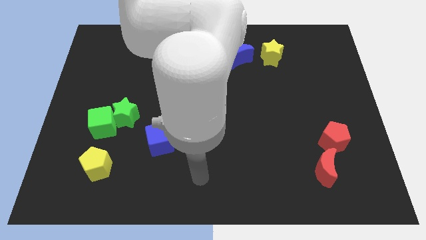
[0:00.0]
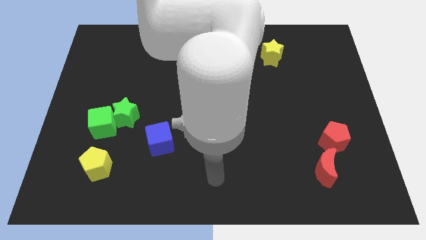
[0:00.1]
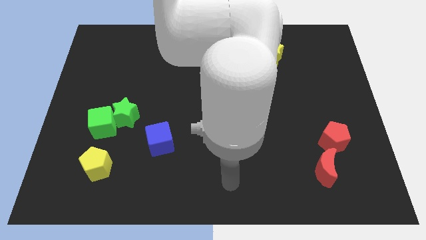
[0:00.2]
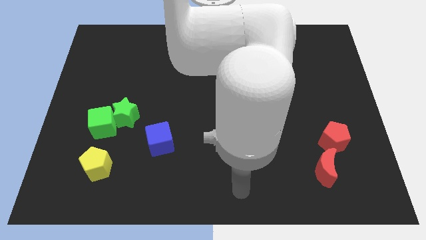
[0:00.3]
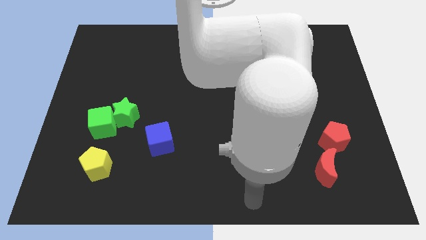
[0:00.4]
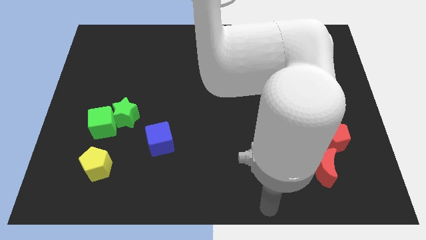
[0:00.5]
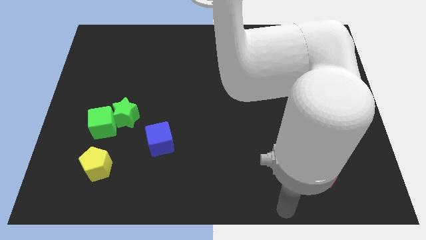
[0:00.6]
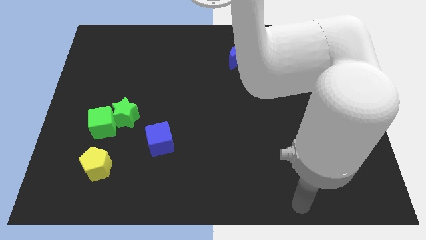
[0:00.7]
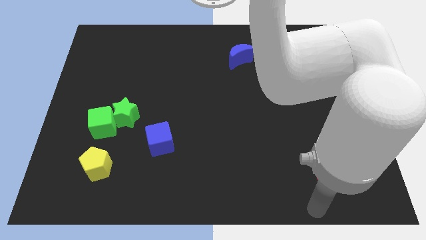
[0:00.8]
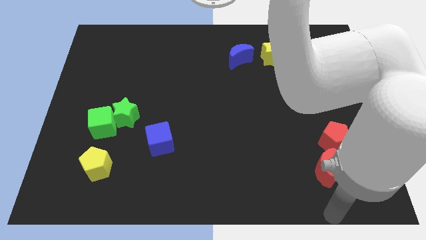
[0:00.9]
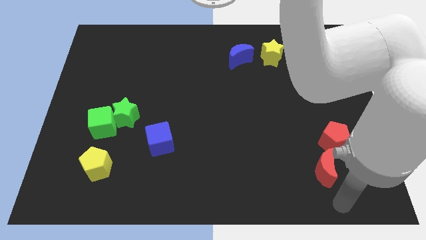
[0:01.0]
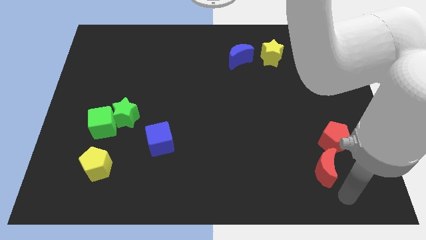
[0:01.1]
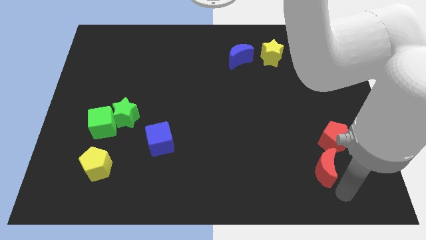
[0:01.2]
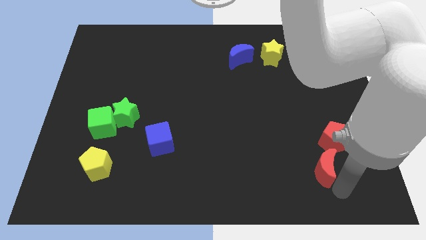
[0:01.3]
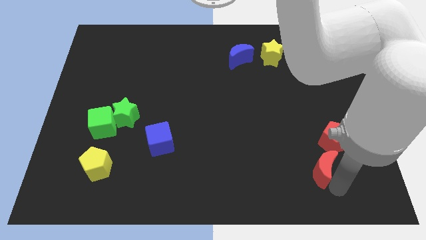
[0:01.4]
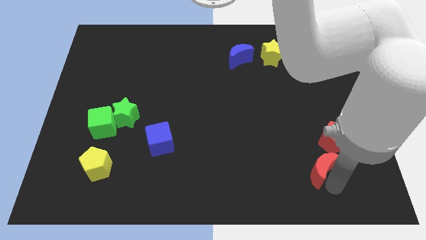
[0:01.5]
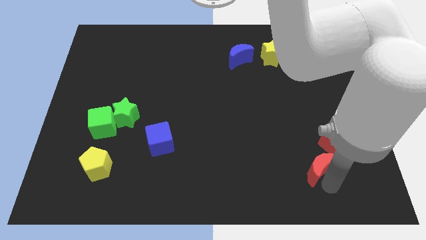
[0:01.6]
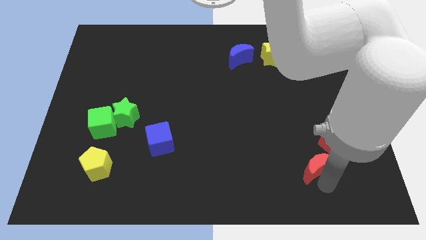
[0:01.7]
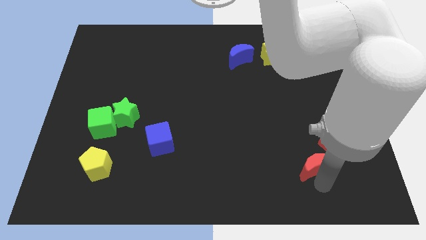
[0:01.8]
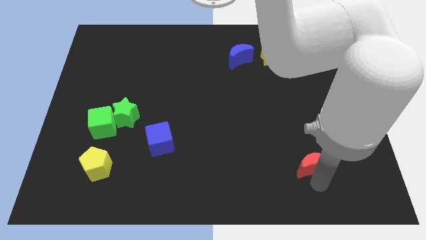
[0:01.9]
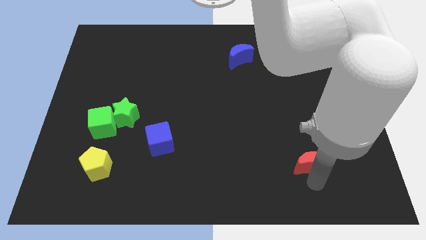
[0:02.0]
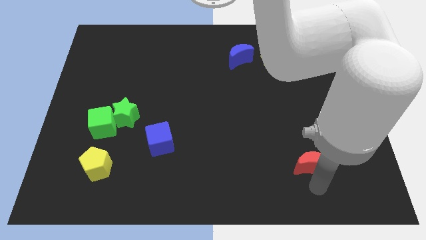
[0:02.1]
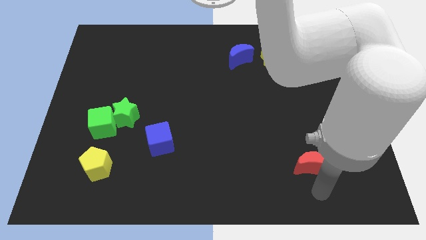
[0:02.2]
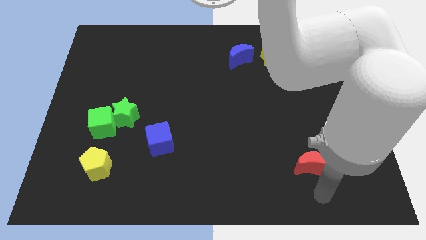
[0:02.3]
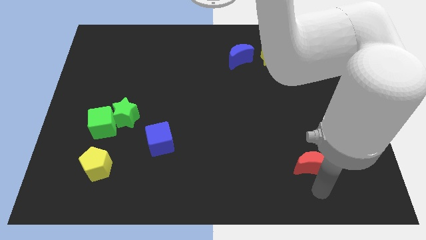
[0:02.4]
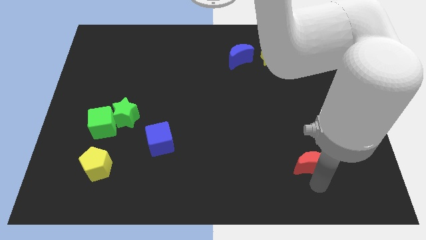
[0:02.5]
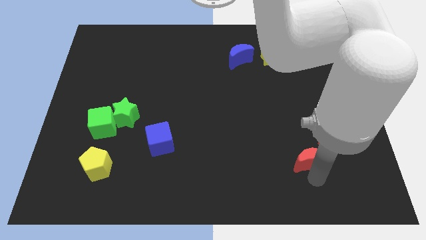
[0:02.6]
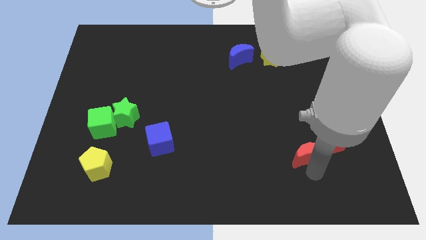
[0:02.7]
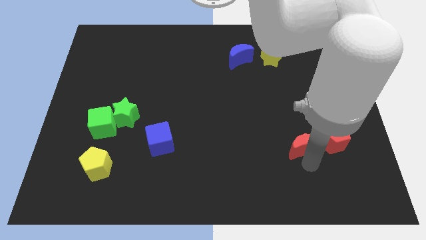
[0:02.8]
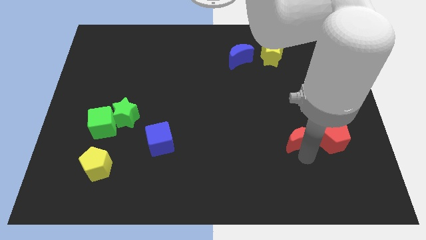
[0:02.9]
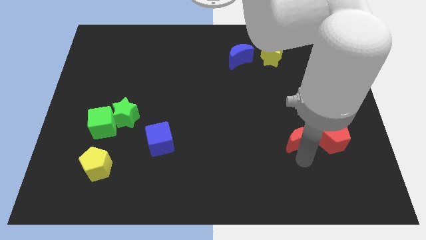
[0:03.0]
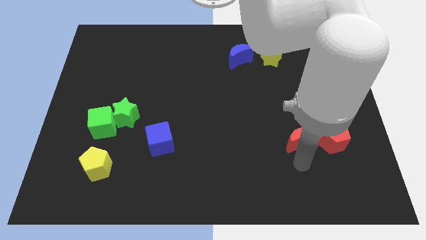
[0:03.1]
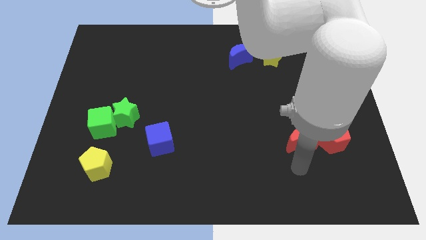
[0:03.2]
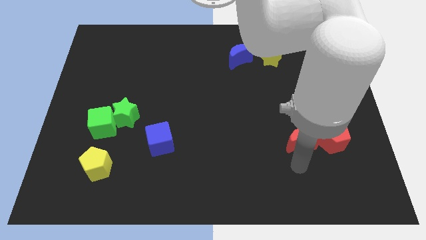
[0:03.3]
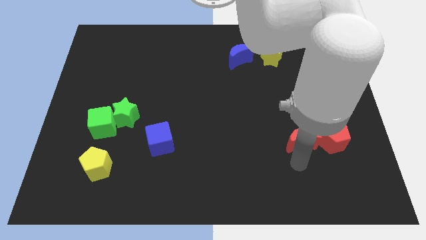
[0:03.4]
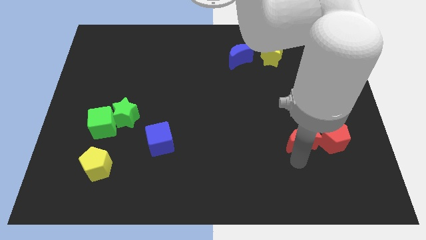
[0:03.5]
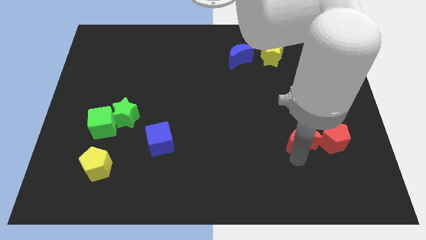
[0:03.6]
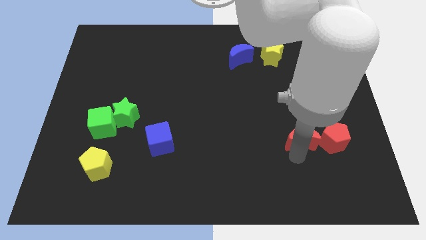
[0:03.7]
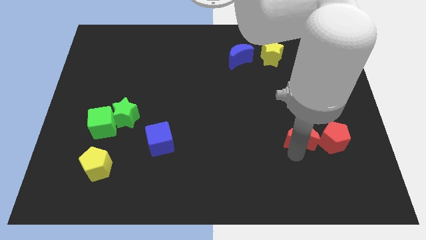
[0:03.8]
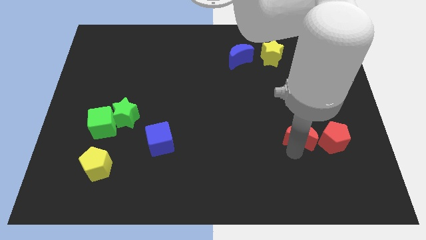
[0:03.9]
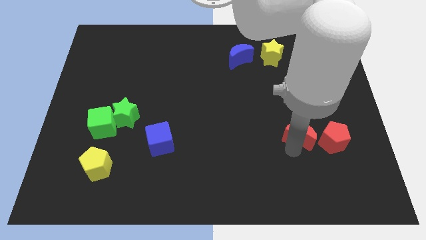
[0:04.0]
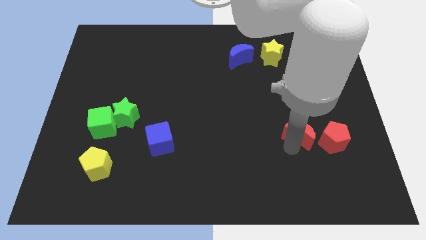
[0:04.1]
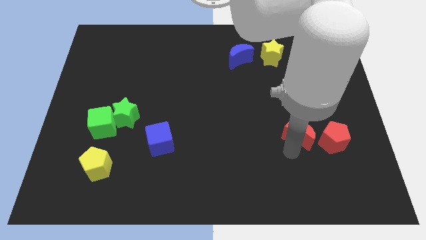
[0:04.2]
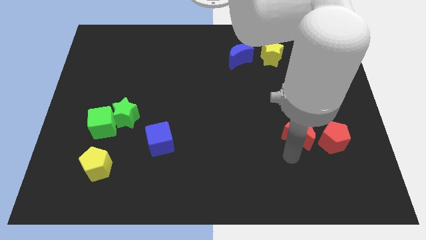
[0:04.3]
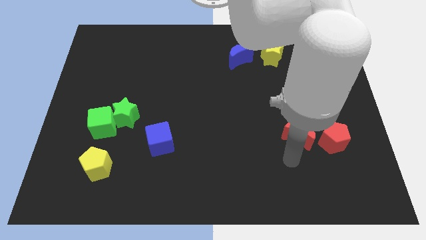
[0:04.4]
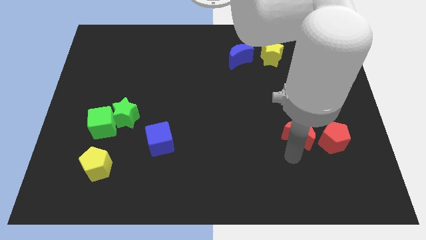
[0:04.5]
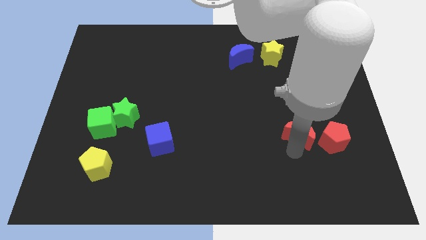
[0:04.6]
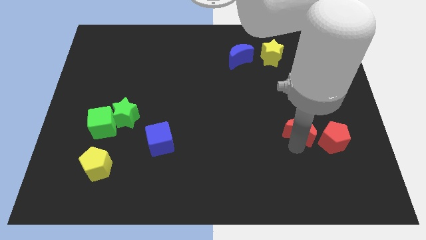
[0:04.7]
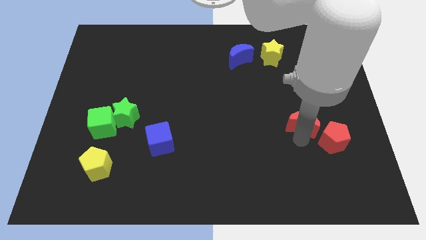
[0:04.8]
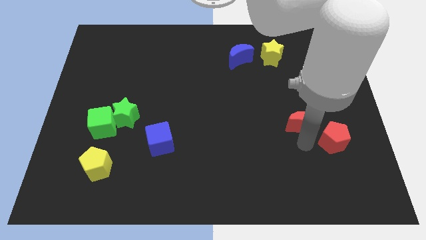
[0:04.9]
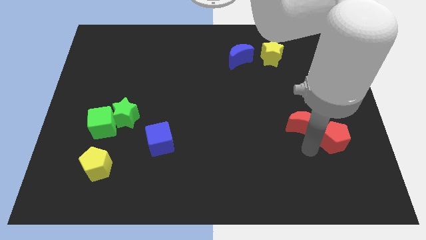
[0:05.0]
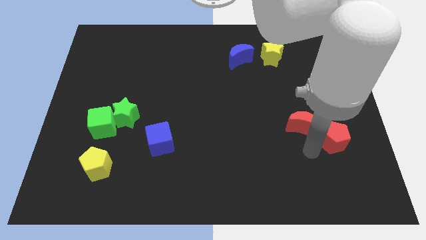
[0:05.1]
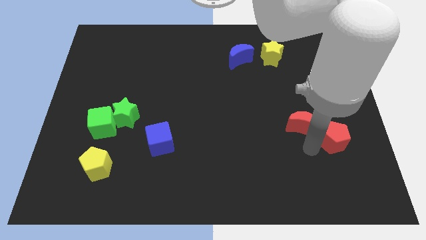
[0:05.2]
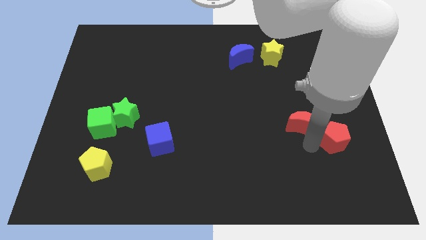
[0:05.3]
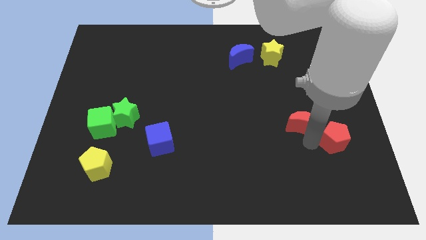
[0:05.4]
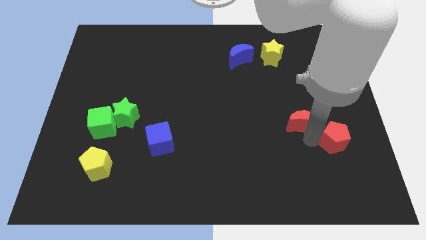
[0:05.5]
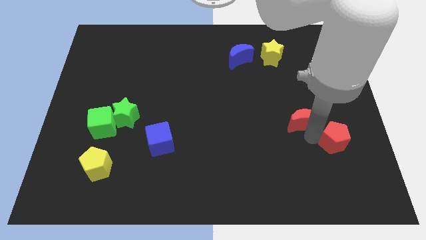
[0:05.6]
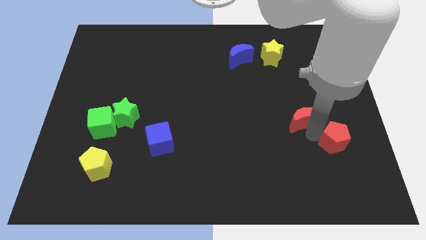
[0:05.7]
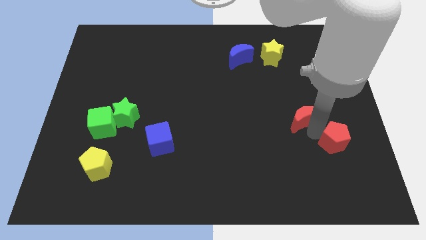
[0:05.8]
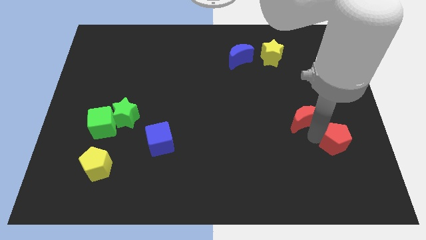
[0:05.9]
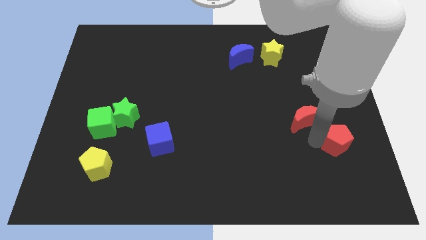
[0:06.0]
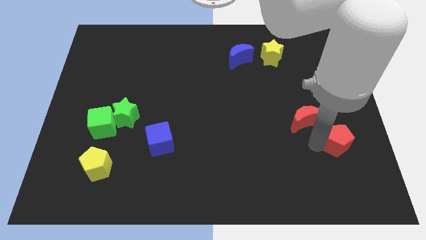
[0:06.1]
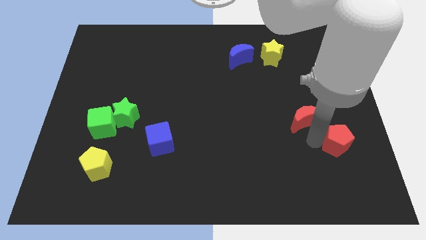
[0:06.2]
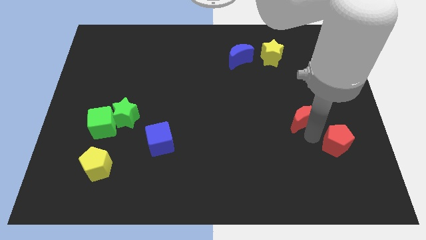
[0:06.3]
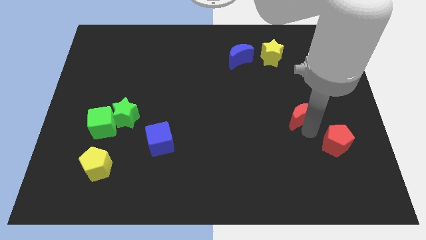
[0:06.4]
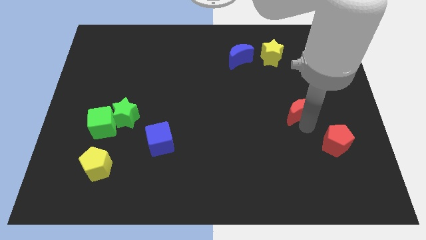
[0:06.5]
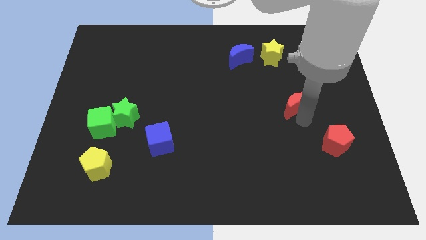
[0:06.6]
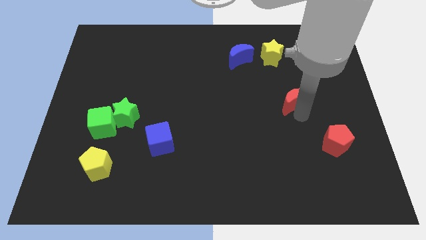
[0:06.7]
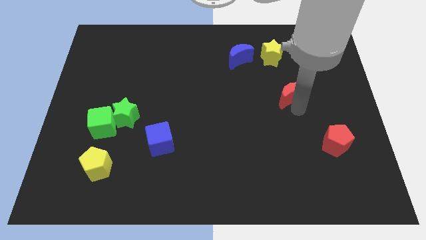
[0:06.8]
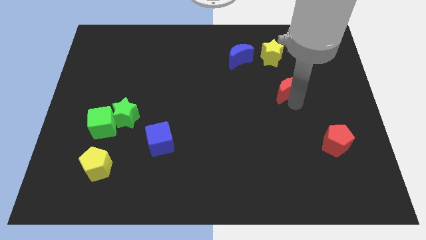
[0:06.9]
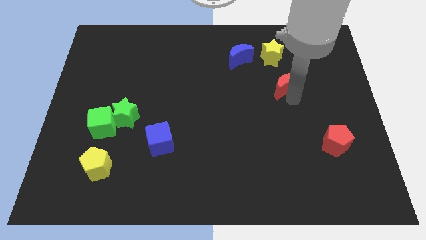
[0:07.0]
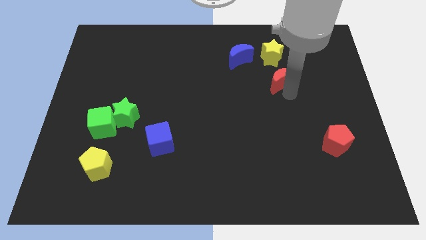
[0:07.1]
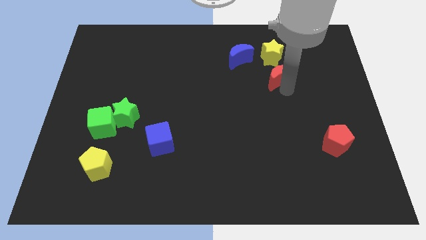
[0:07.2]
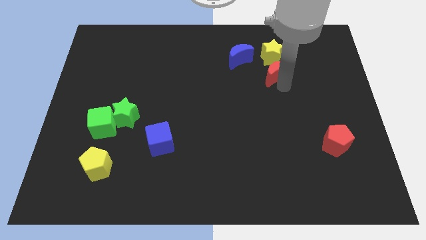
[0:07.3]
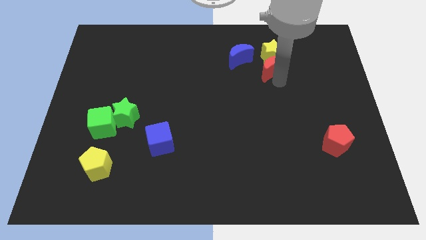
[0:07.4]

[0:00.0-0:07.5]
put the red moon next to the yellow star
